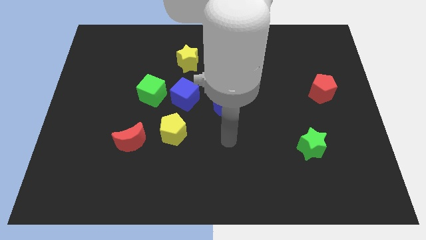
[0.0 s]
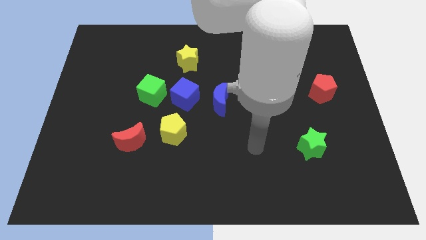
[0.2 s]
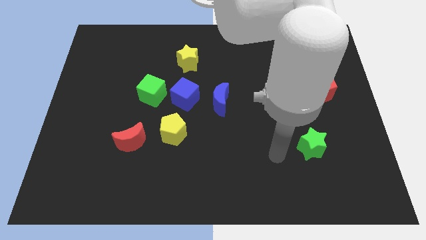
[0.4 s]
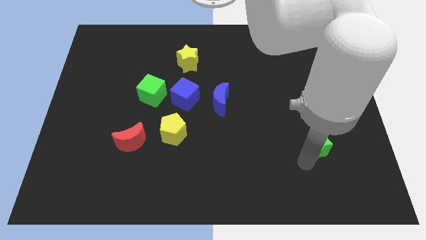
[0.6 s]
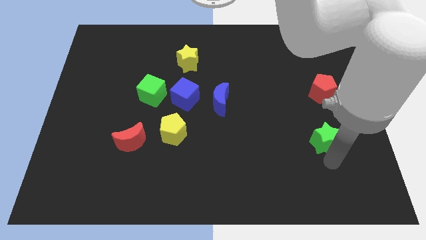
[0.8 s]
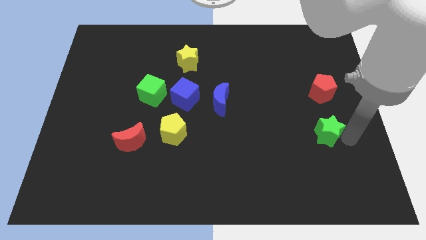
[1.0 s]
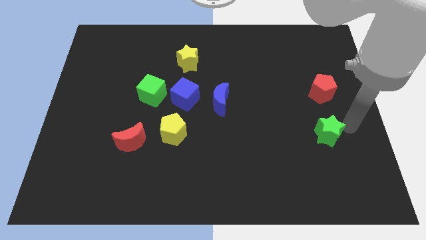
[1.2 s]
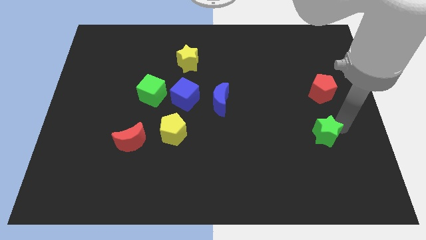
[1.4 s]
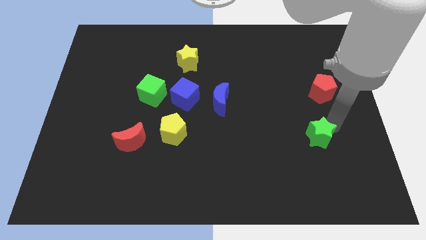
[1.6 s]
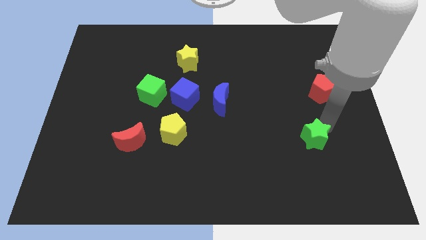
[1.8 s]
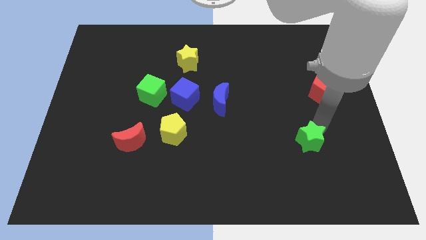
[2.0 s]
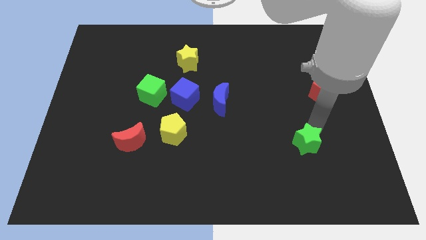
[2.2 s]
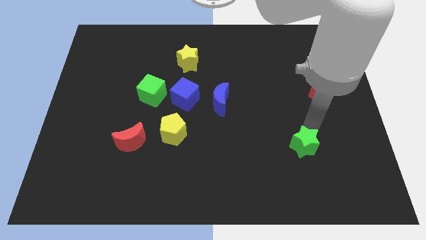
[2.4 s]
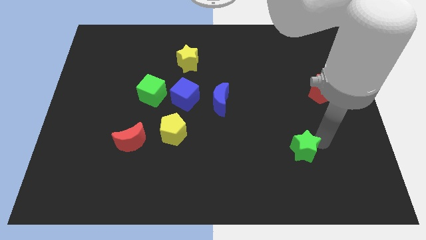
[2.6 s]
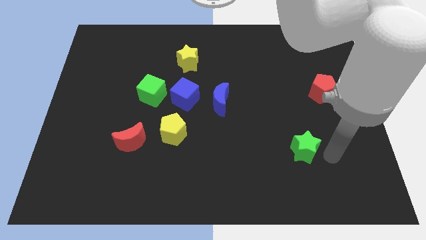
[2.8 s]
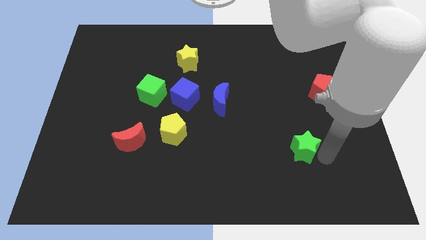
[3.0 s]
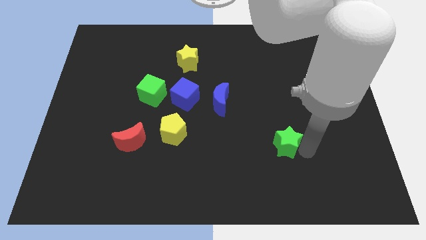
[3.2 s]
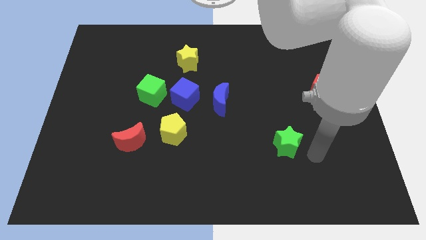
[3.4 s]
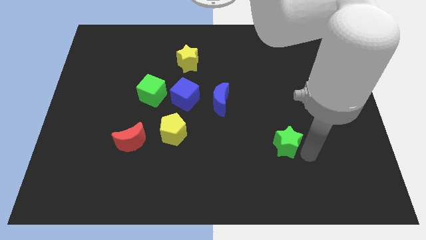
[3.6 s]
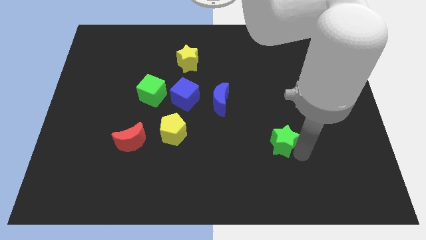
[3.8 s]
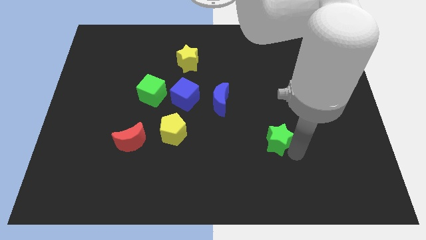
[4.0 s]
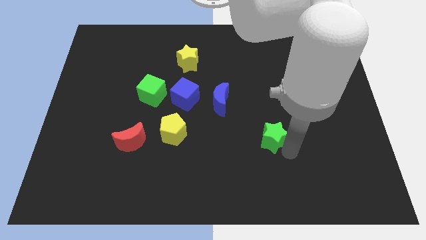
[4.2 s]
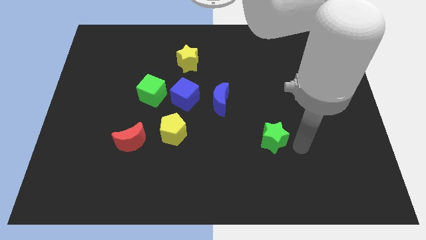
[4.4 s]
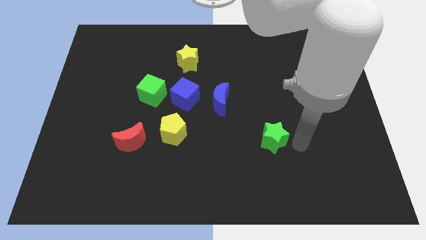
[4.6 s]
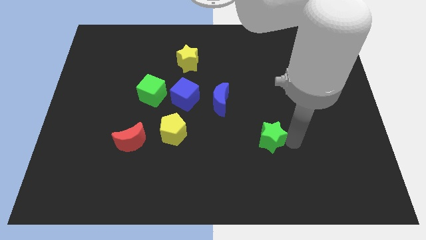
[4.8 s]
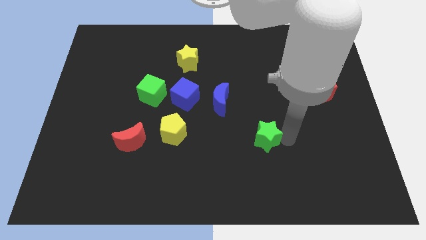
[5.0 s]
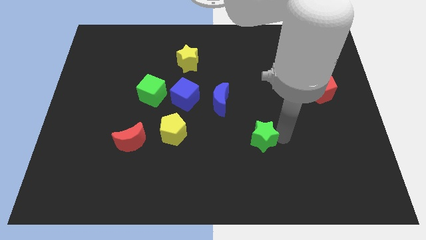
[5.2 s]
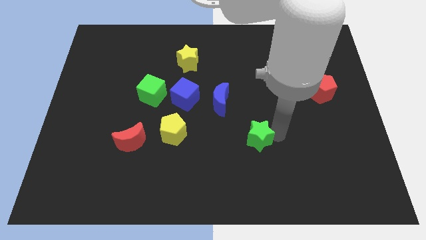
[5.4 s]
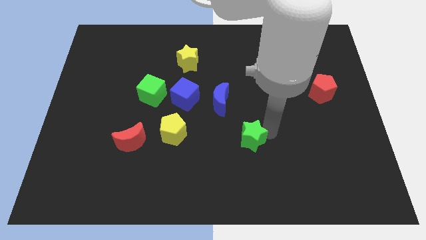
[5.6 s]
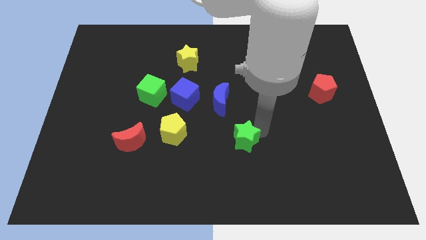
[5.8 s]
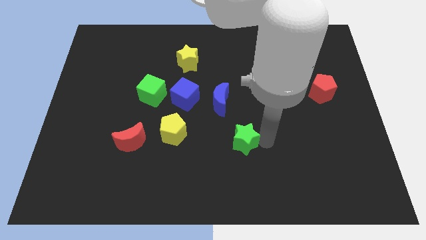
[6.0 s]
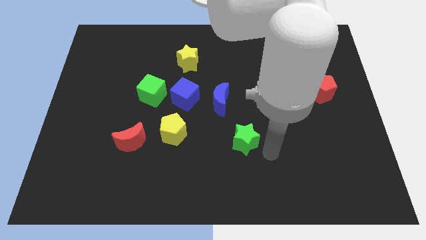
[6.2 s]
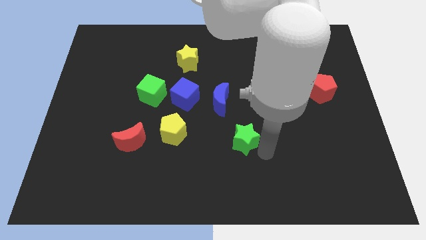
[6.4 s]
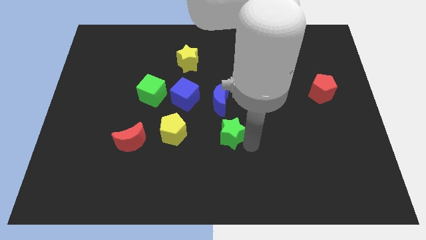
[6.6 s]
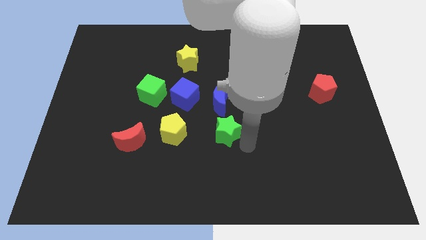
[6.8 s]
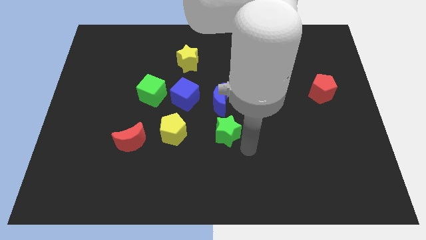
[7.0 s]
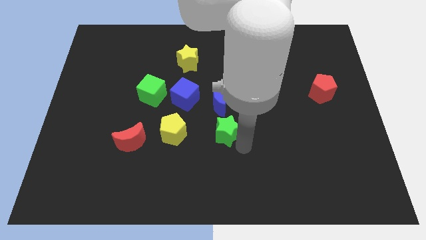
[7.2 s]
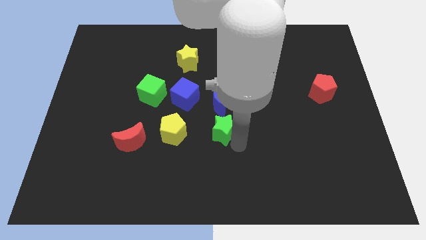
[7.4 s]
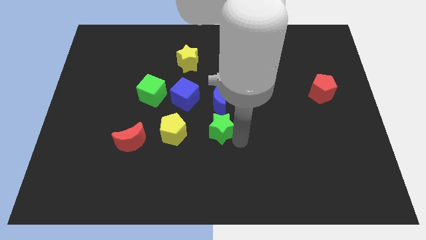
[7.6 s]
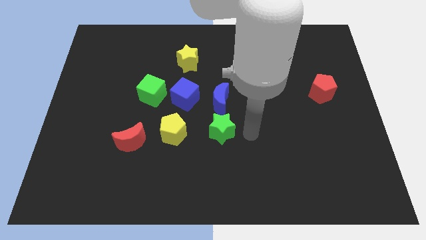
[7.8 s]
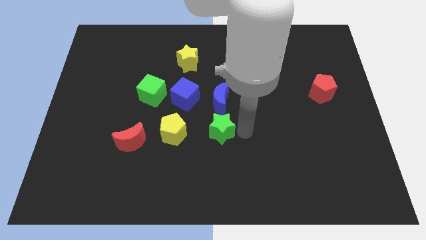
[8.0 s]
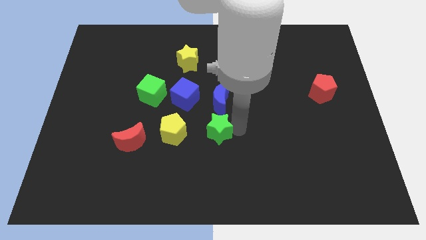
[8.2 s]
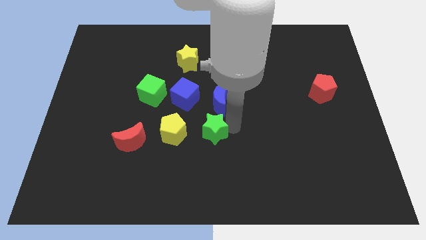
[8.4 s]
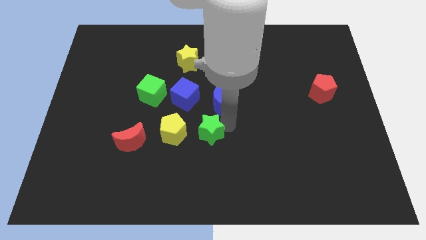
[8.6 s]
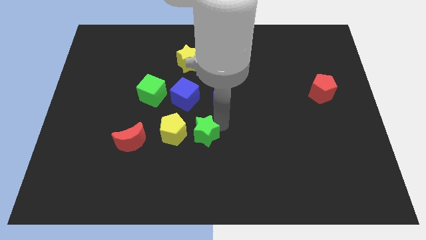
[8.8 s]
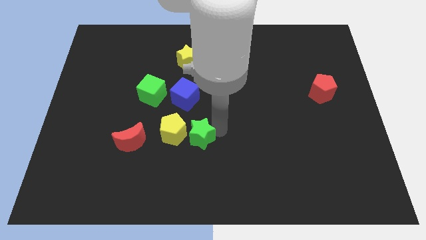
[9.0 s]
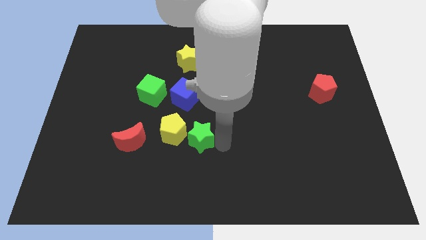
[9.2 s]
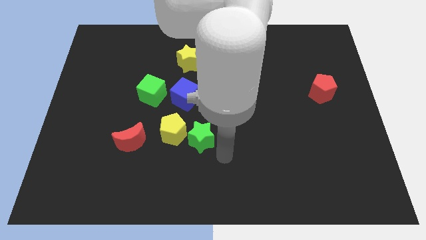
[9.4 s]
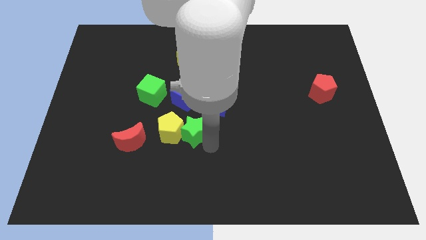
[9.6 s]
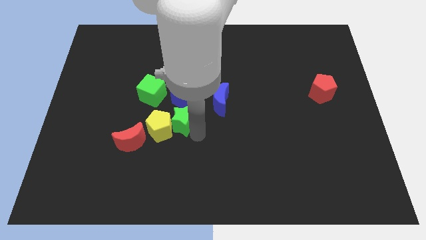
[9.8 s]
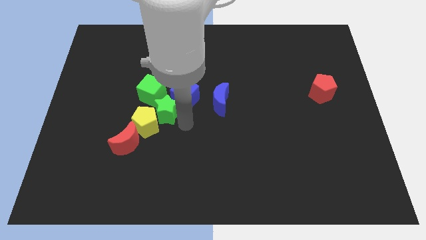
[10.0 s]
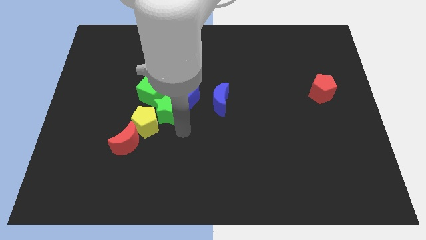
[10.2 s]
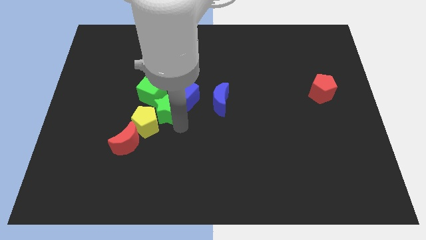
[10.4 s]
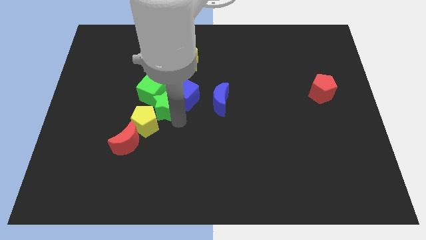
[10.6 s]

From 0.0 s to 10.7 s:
put the green star close to the green cube

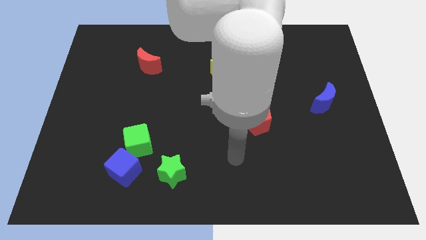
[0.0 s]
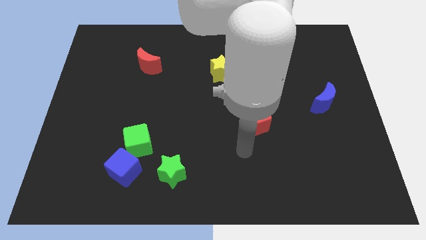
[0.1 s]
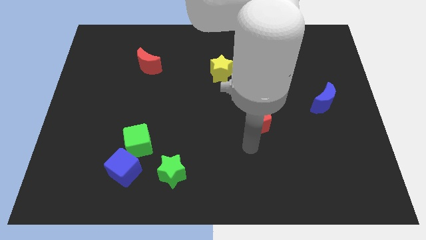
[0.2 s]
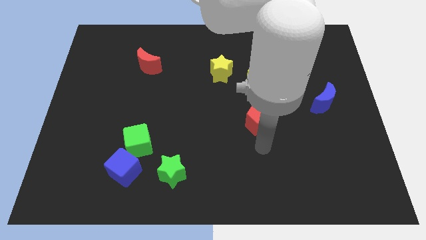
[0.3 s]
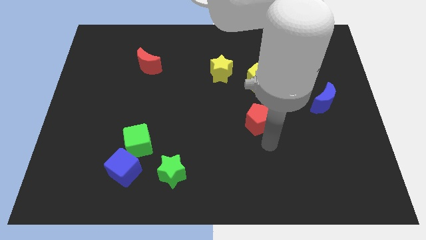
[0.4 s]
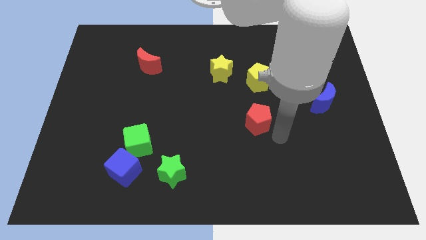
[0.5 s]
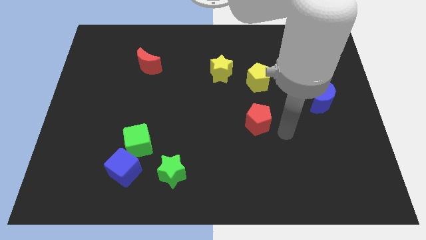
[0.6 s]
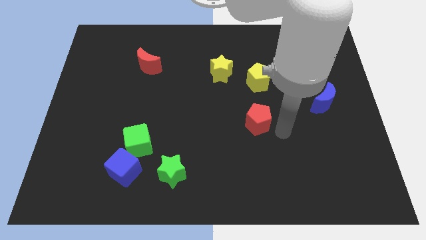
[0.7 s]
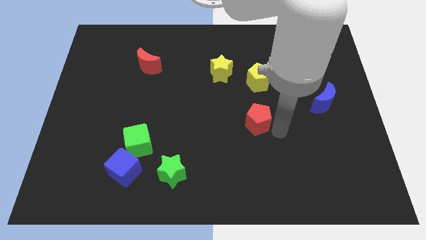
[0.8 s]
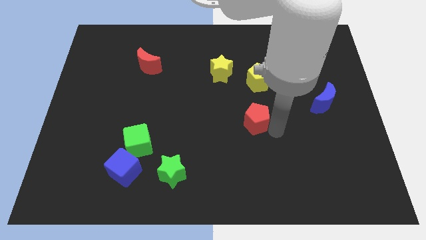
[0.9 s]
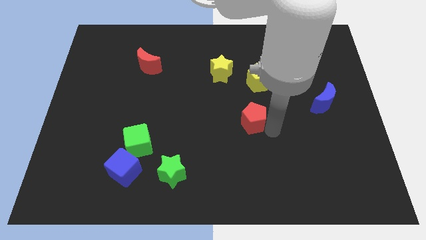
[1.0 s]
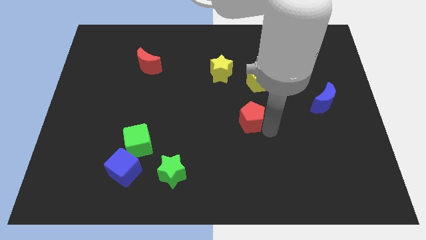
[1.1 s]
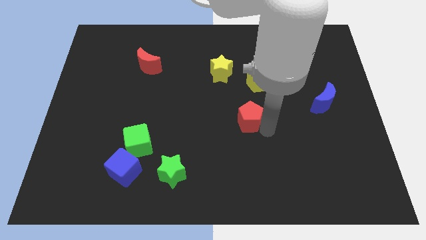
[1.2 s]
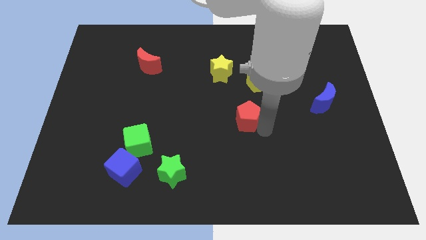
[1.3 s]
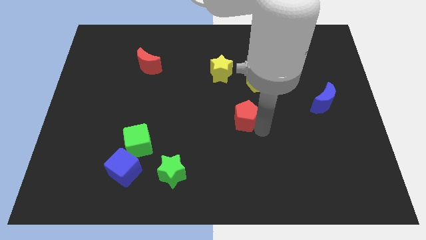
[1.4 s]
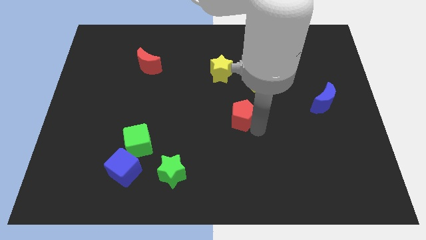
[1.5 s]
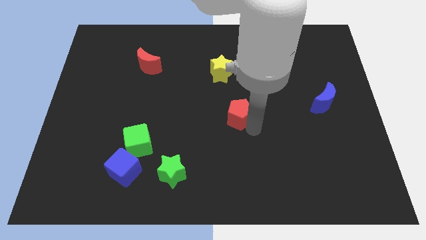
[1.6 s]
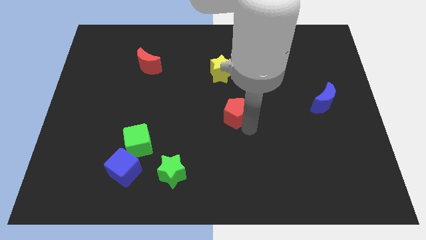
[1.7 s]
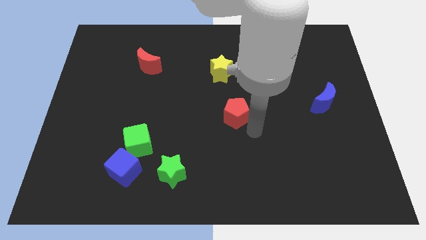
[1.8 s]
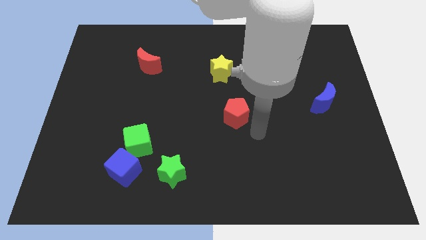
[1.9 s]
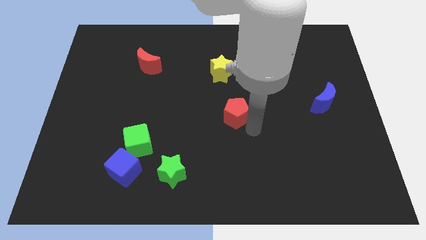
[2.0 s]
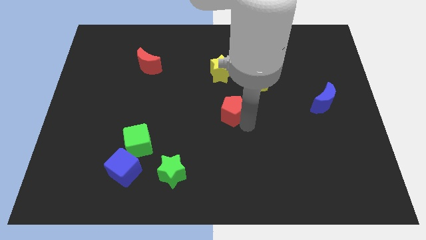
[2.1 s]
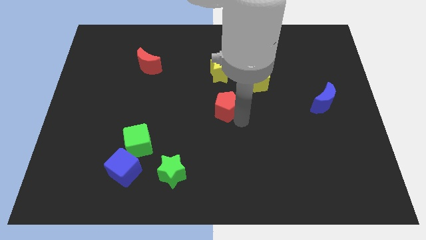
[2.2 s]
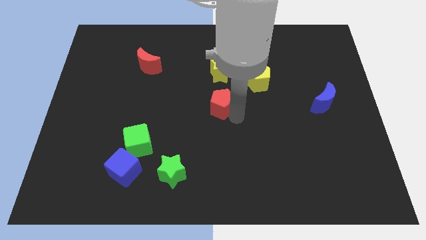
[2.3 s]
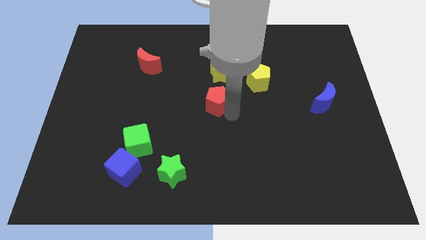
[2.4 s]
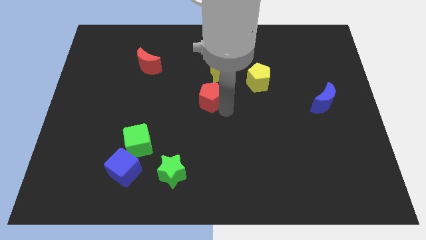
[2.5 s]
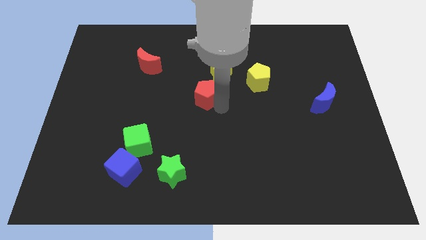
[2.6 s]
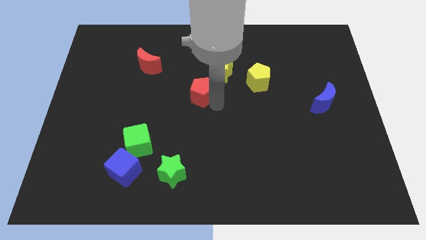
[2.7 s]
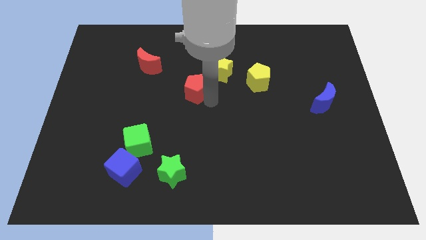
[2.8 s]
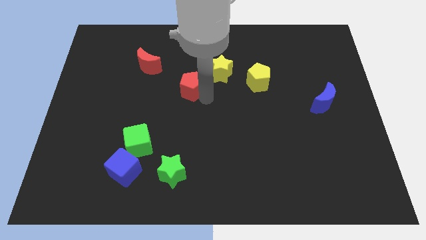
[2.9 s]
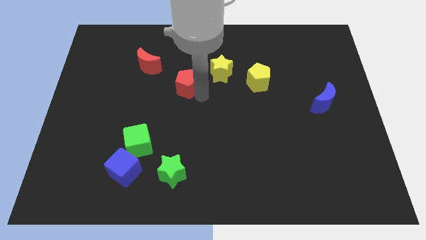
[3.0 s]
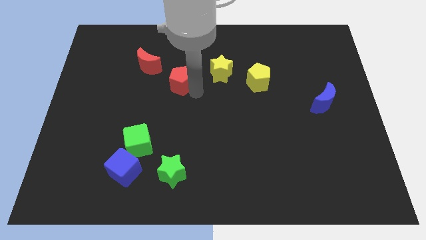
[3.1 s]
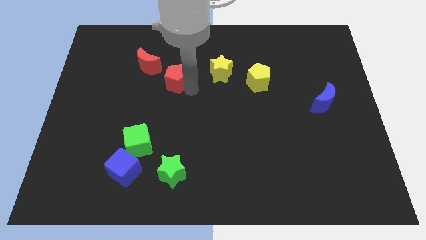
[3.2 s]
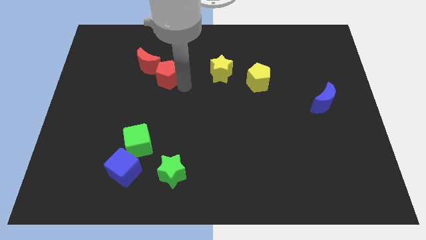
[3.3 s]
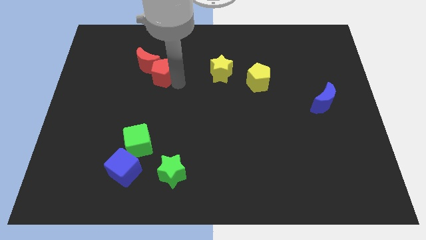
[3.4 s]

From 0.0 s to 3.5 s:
move the red pentagon towards the red moon
